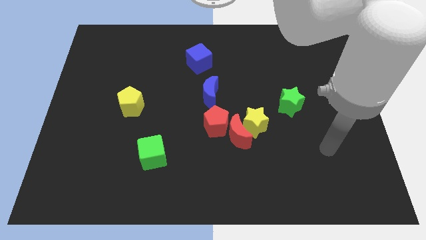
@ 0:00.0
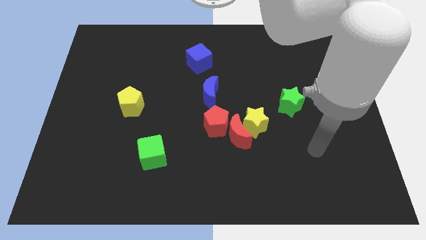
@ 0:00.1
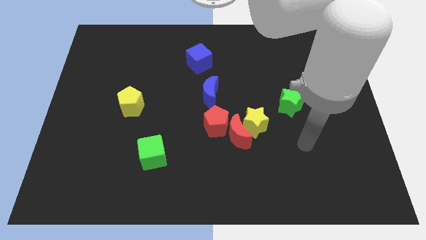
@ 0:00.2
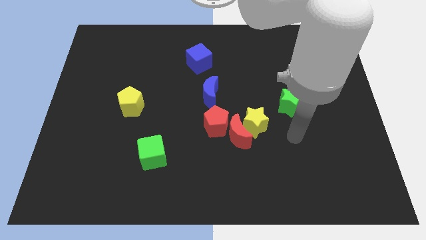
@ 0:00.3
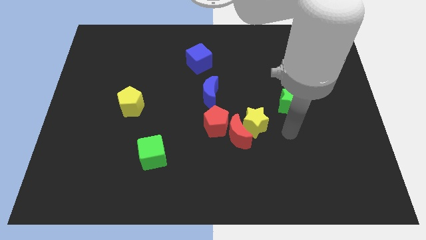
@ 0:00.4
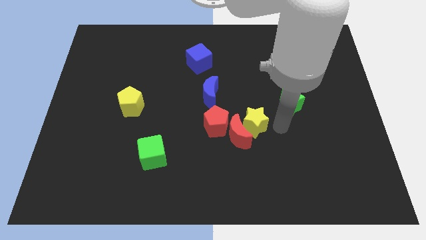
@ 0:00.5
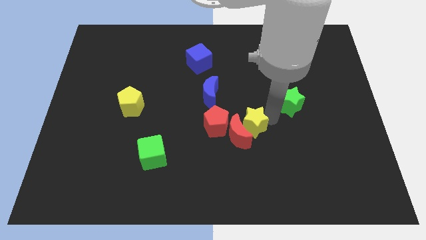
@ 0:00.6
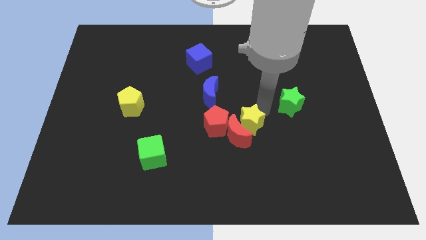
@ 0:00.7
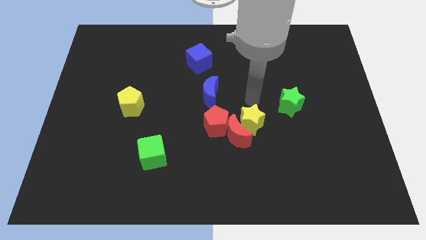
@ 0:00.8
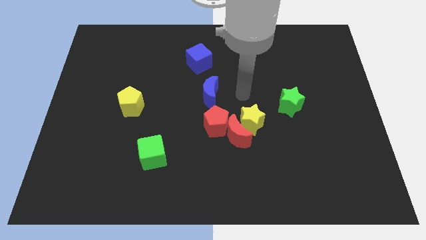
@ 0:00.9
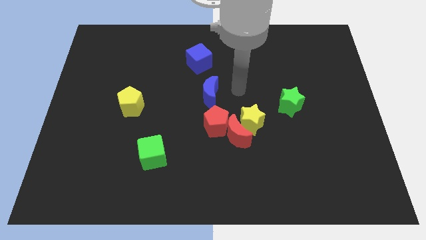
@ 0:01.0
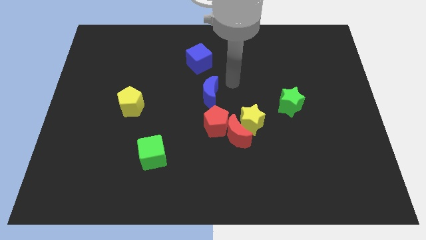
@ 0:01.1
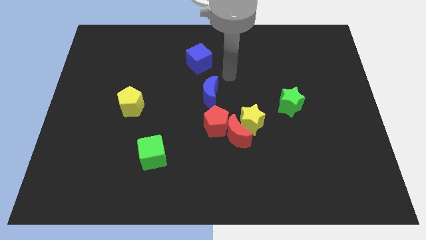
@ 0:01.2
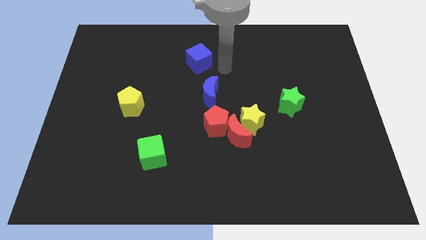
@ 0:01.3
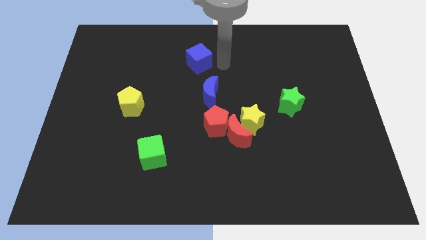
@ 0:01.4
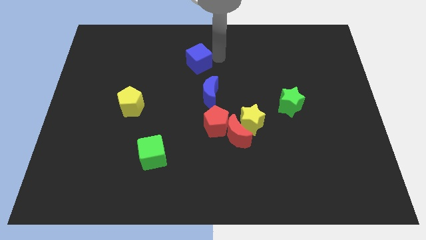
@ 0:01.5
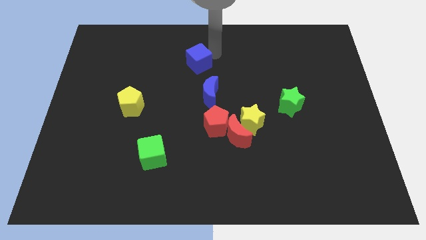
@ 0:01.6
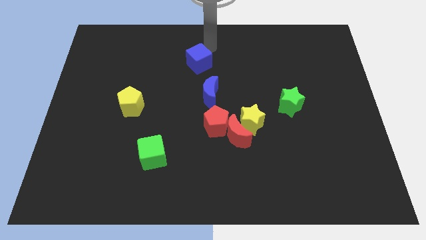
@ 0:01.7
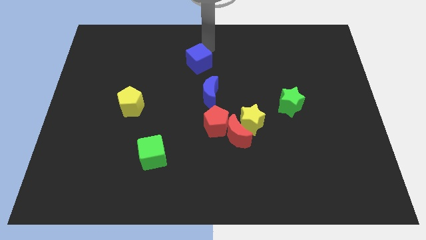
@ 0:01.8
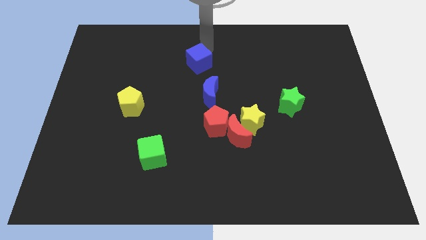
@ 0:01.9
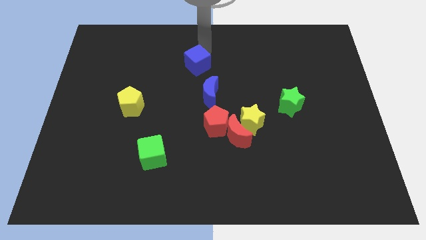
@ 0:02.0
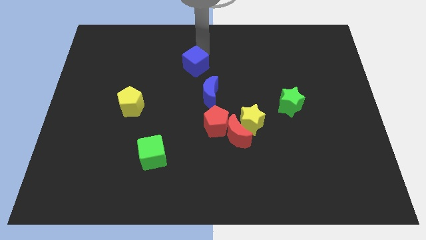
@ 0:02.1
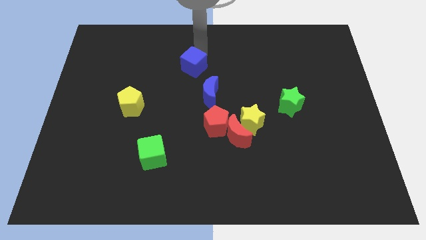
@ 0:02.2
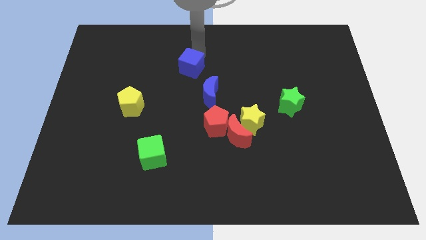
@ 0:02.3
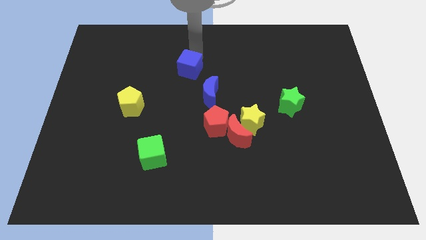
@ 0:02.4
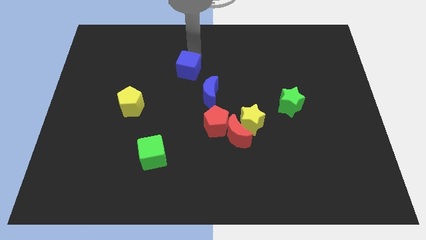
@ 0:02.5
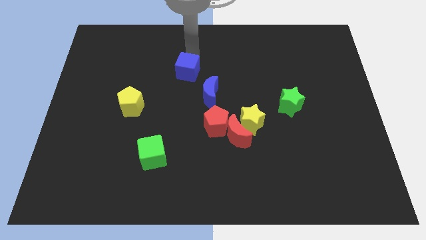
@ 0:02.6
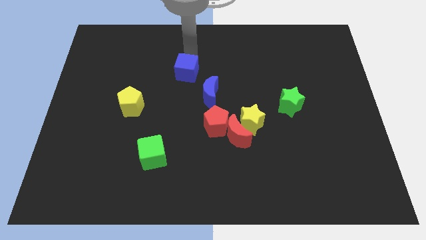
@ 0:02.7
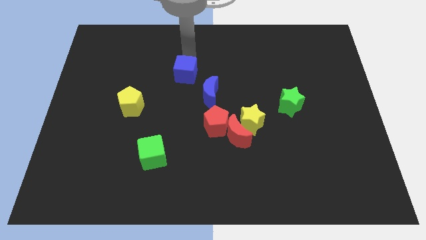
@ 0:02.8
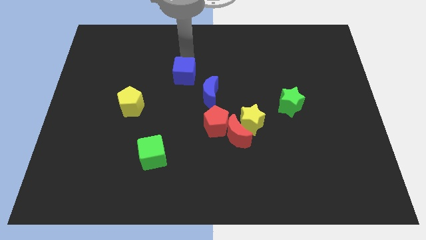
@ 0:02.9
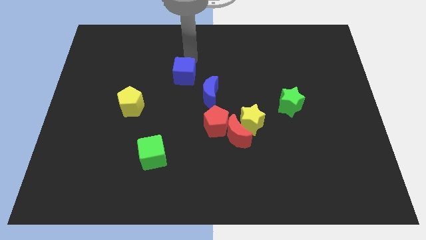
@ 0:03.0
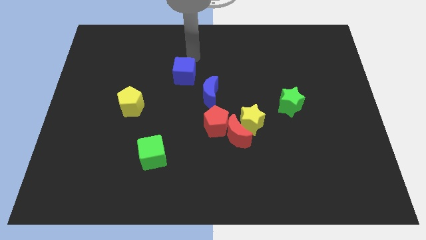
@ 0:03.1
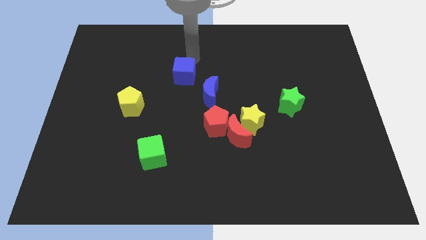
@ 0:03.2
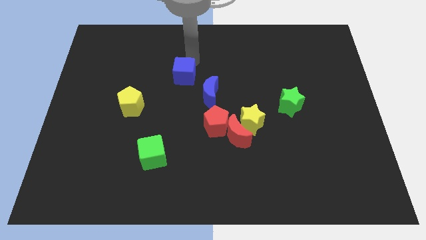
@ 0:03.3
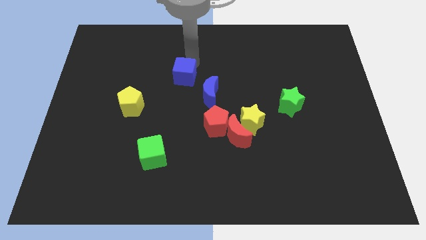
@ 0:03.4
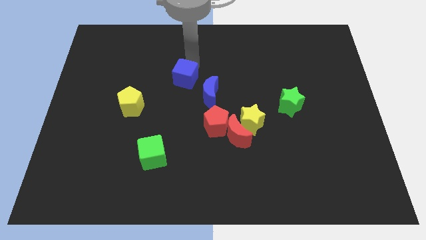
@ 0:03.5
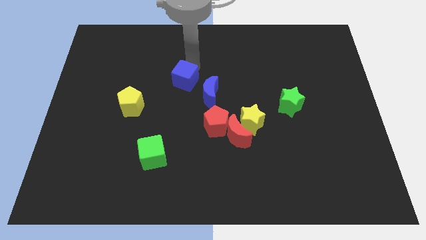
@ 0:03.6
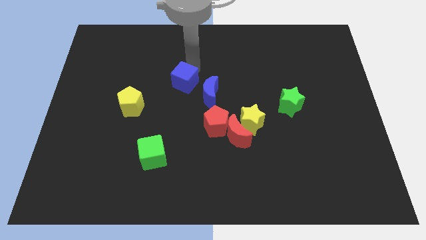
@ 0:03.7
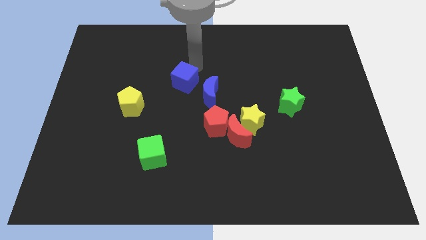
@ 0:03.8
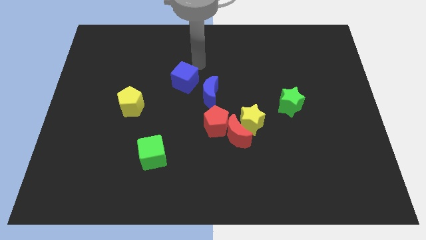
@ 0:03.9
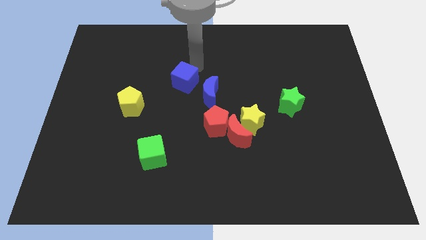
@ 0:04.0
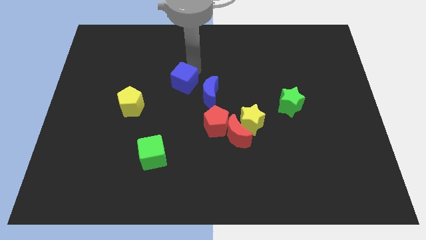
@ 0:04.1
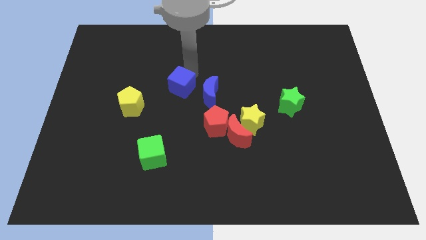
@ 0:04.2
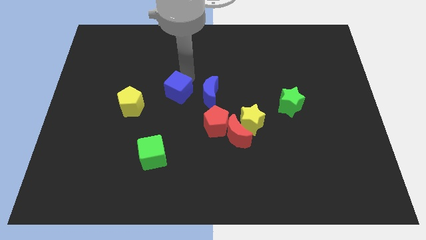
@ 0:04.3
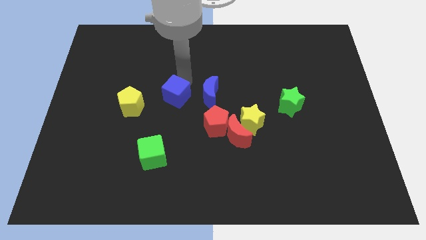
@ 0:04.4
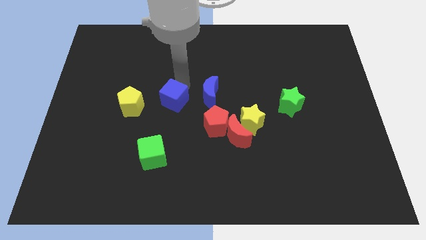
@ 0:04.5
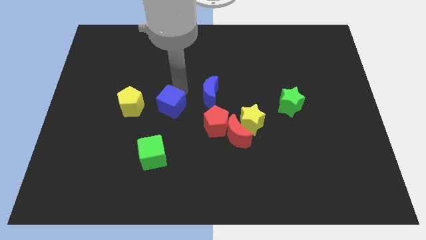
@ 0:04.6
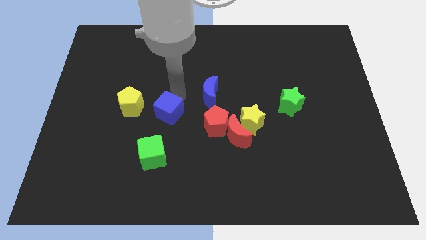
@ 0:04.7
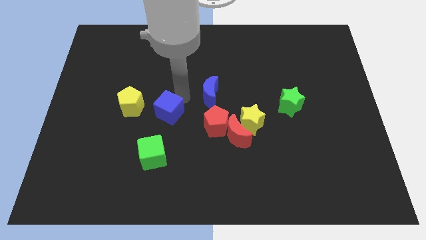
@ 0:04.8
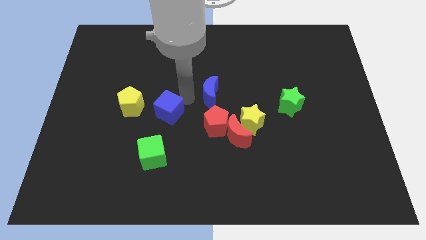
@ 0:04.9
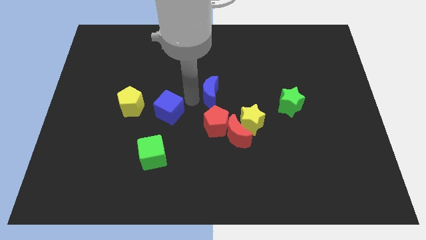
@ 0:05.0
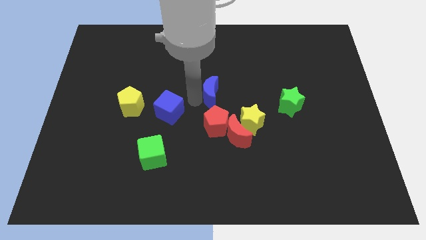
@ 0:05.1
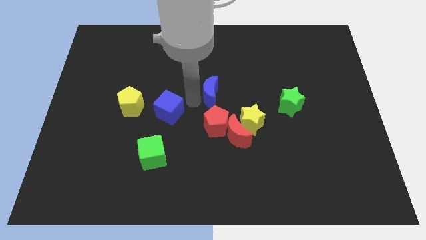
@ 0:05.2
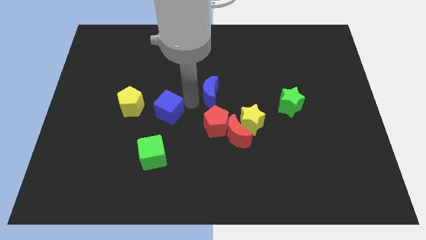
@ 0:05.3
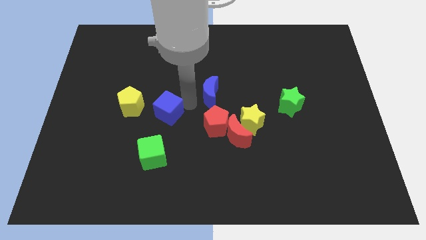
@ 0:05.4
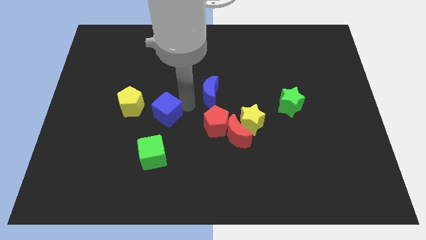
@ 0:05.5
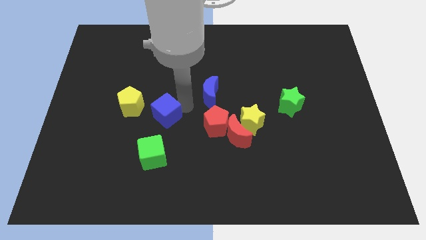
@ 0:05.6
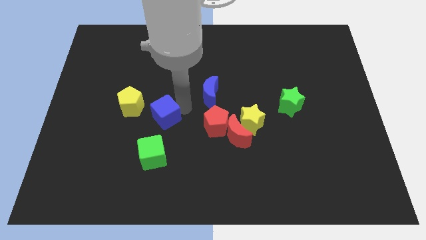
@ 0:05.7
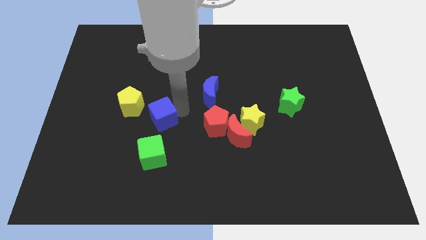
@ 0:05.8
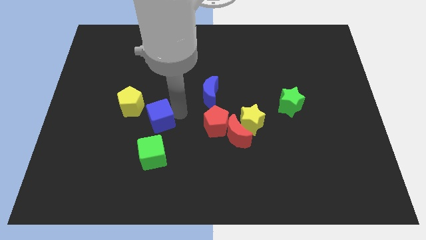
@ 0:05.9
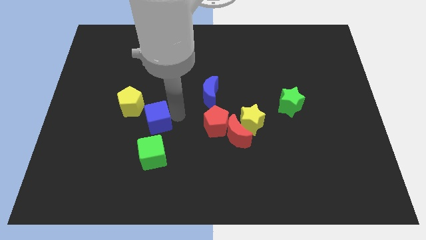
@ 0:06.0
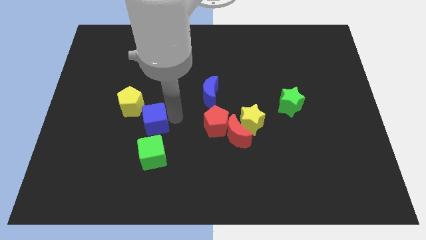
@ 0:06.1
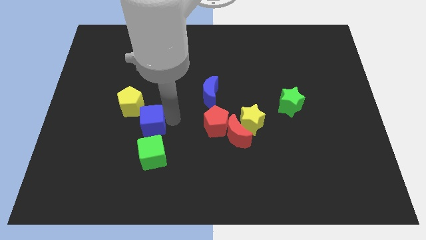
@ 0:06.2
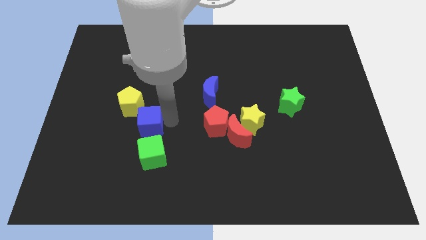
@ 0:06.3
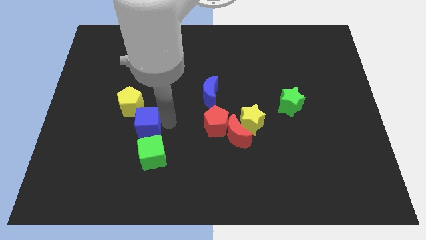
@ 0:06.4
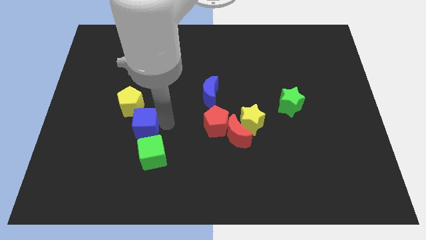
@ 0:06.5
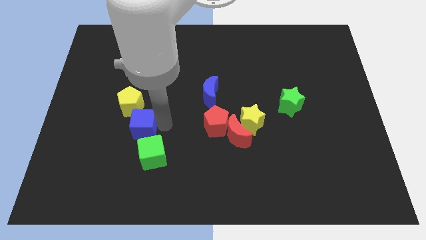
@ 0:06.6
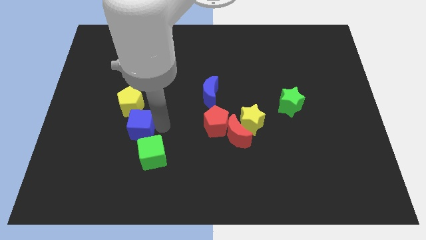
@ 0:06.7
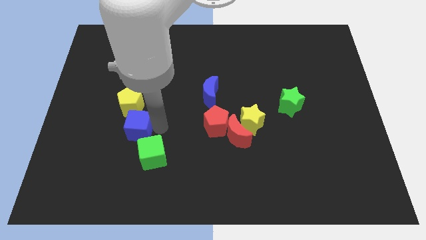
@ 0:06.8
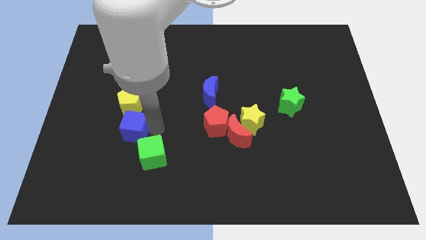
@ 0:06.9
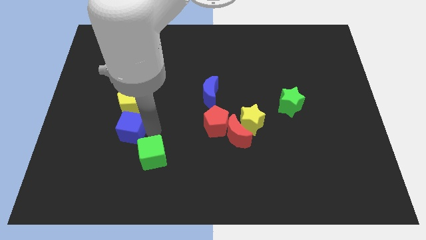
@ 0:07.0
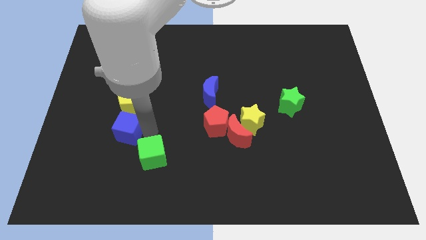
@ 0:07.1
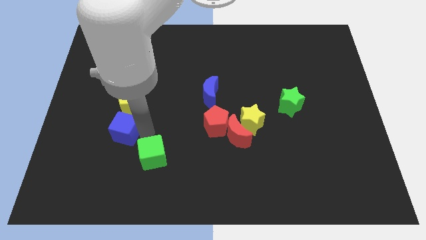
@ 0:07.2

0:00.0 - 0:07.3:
slide the blue cube diagonally down and to the left of the yellow pentagon

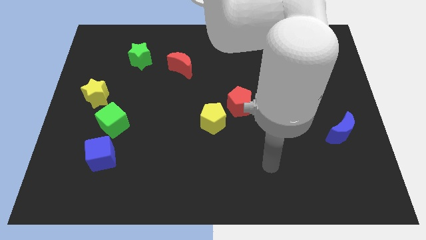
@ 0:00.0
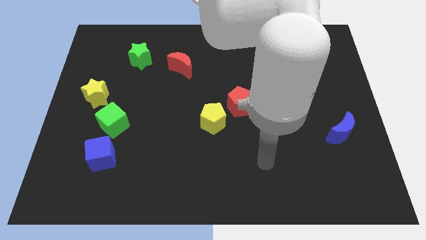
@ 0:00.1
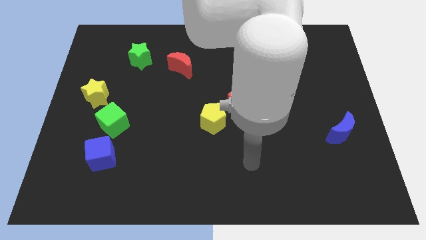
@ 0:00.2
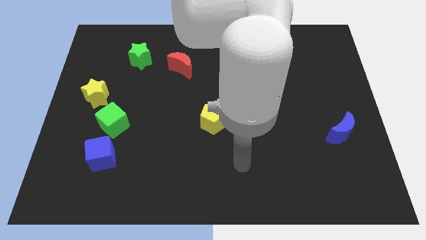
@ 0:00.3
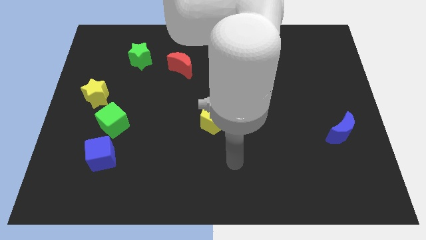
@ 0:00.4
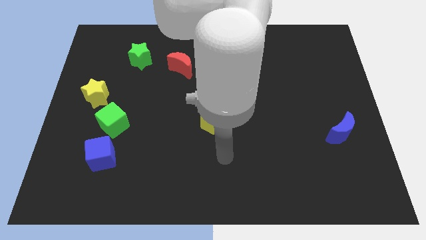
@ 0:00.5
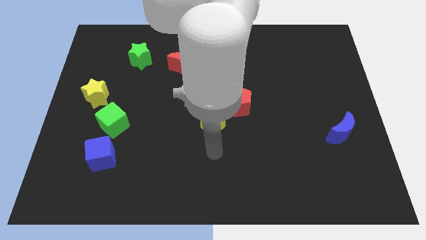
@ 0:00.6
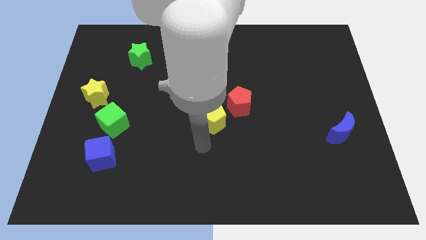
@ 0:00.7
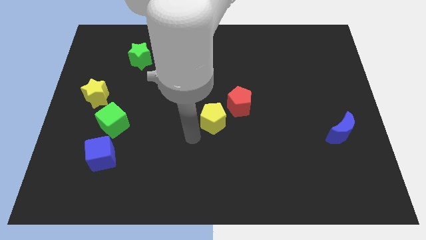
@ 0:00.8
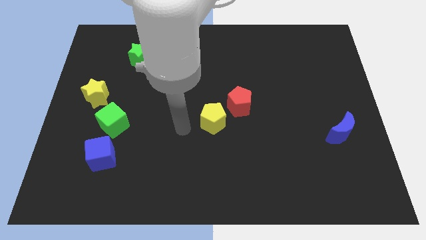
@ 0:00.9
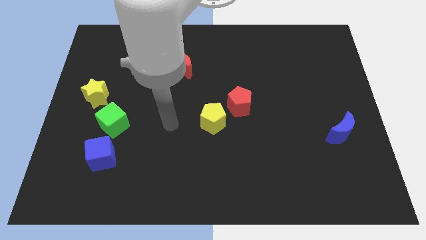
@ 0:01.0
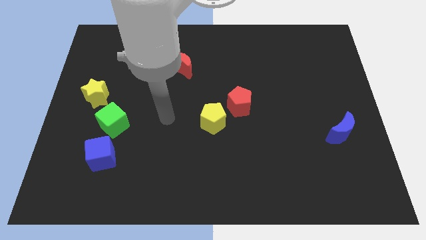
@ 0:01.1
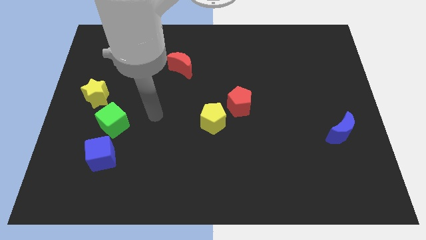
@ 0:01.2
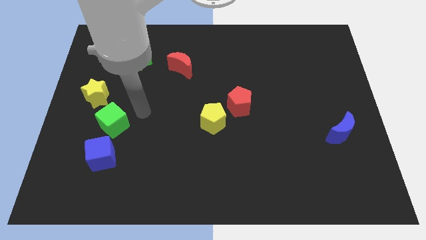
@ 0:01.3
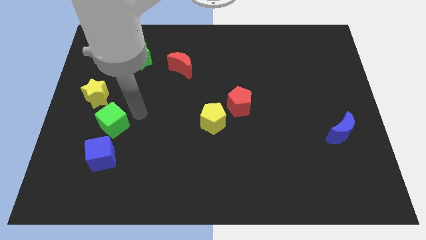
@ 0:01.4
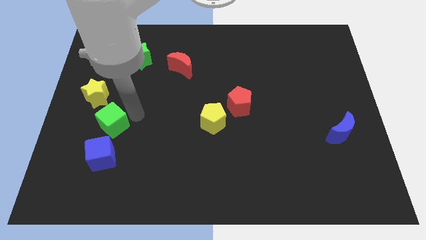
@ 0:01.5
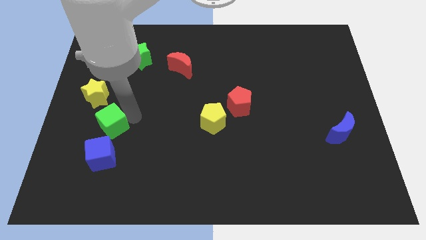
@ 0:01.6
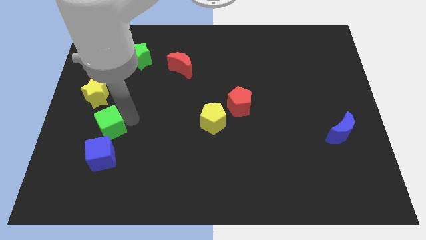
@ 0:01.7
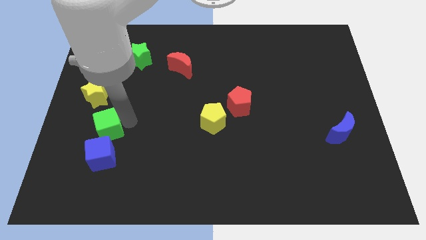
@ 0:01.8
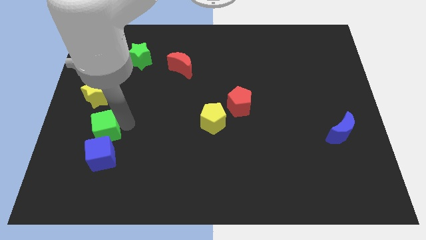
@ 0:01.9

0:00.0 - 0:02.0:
put the green cube to the top left of the blue cube
